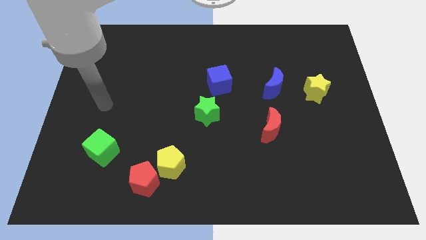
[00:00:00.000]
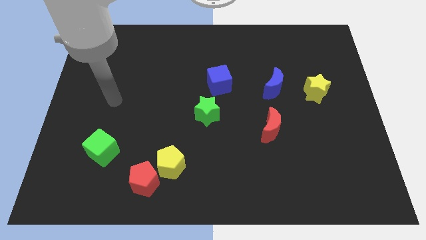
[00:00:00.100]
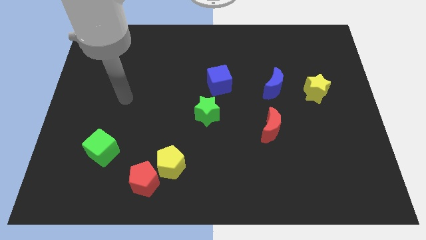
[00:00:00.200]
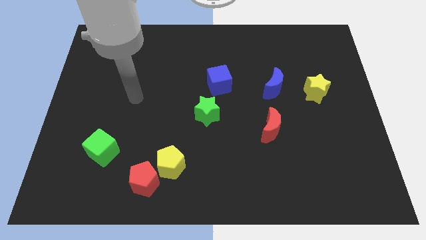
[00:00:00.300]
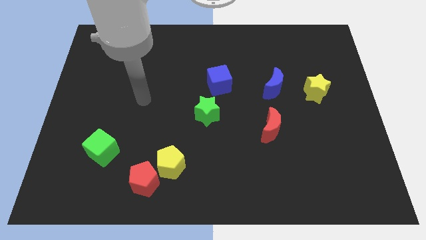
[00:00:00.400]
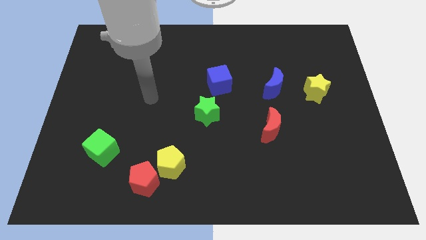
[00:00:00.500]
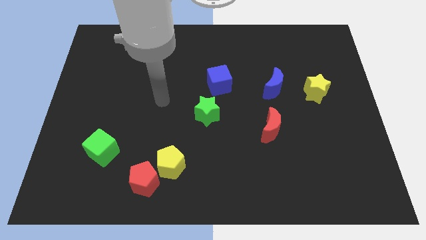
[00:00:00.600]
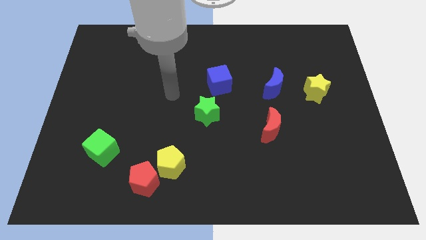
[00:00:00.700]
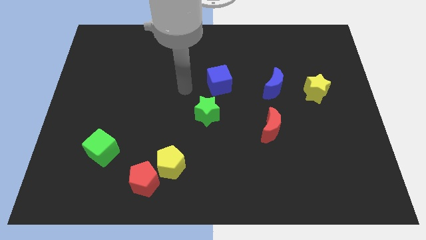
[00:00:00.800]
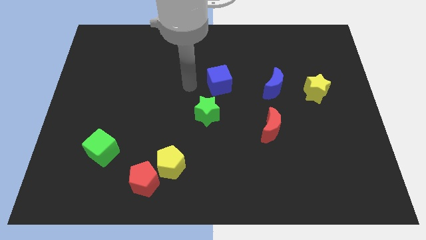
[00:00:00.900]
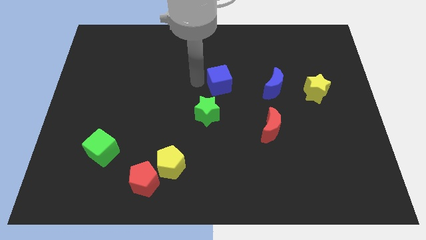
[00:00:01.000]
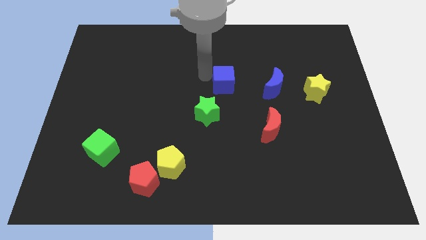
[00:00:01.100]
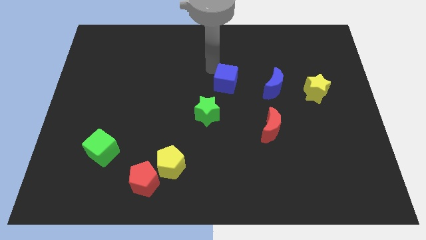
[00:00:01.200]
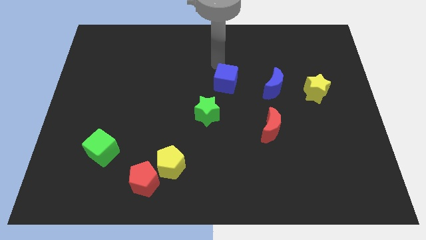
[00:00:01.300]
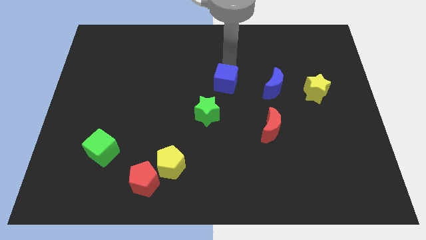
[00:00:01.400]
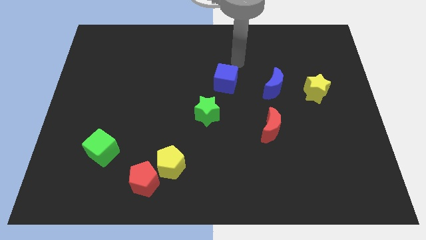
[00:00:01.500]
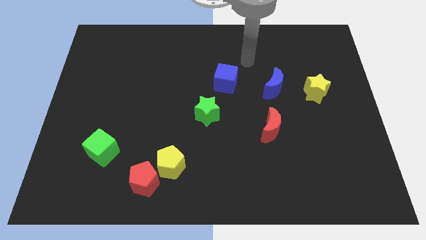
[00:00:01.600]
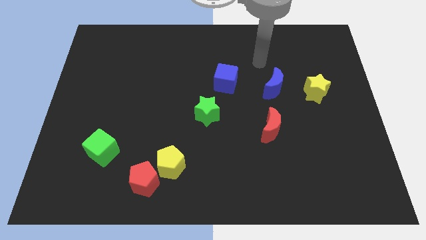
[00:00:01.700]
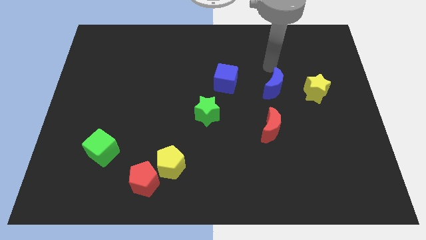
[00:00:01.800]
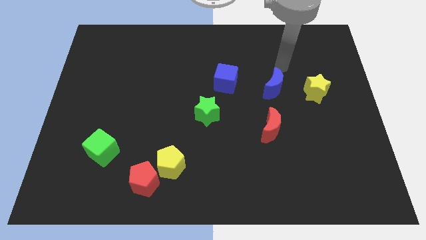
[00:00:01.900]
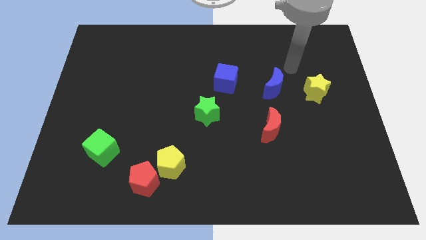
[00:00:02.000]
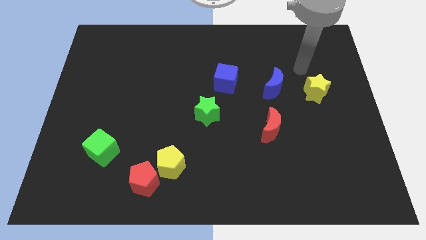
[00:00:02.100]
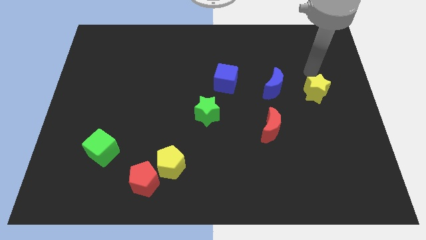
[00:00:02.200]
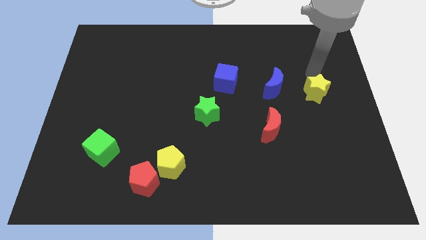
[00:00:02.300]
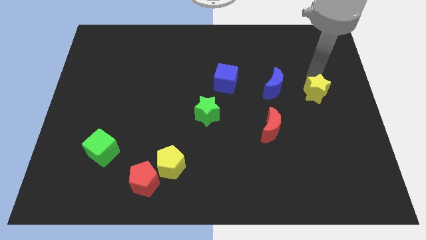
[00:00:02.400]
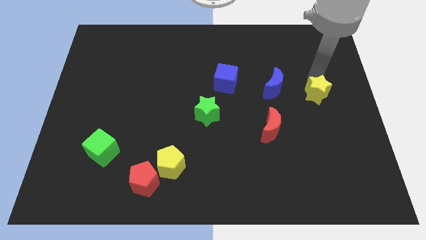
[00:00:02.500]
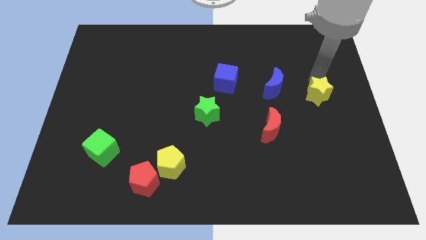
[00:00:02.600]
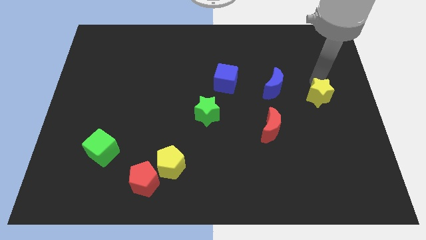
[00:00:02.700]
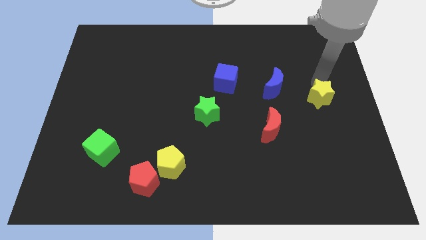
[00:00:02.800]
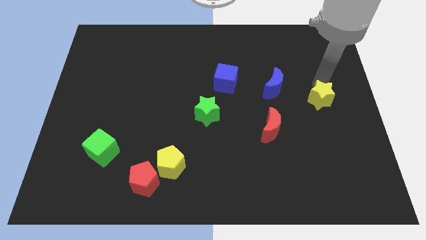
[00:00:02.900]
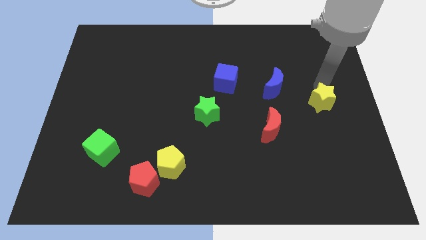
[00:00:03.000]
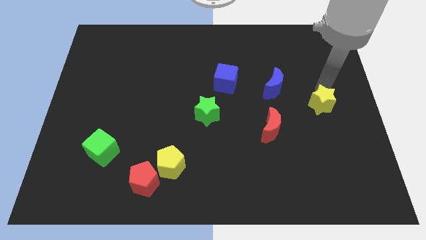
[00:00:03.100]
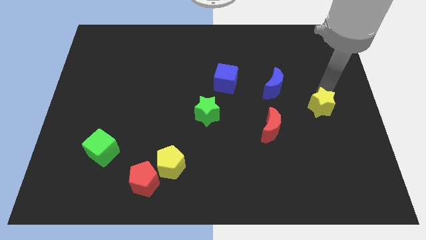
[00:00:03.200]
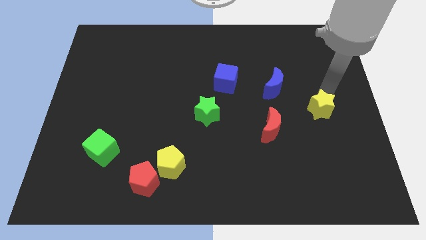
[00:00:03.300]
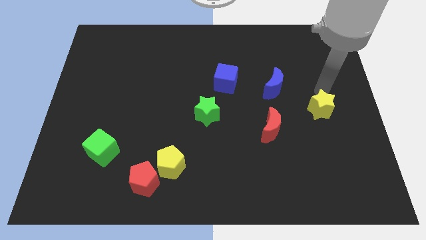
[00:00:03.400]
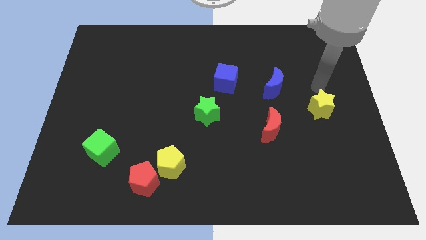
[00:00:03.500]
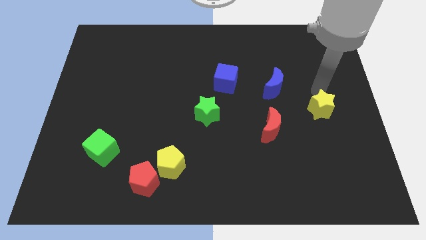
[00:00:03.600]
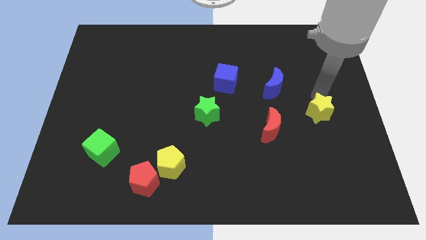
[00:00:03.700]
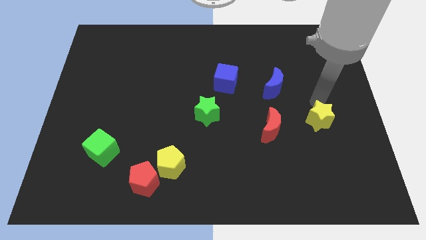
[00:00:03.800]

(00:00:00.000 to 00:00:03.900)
move the yellow star downwards a little bit

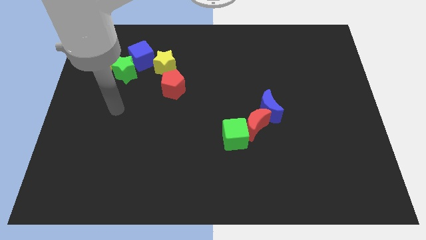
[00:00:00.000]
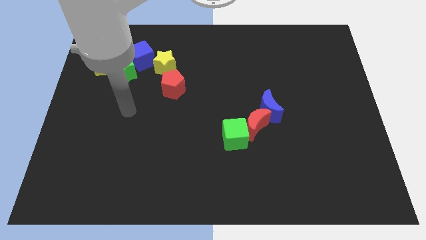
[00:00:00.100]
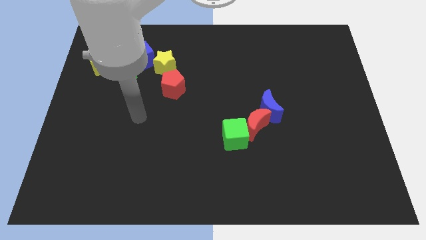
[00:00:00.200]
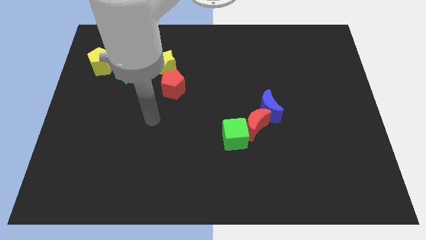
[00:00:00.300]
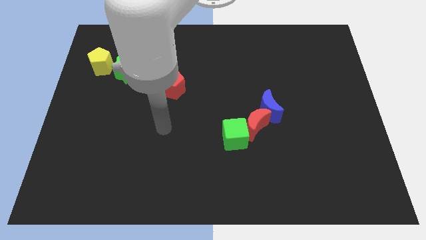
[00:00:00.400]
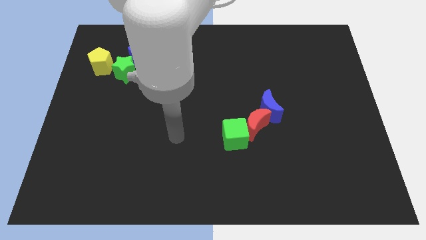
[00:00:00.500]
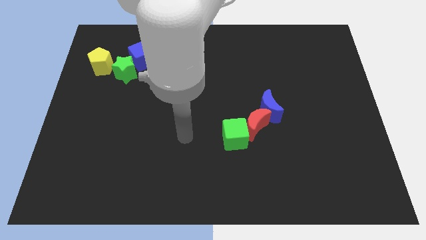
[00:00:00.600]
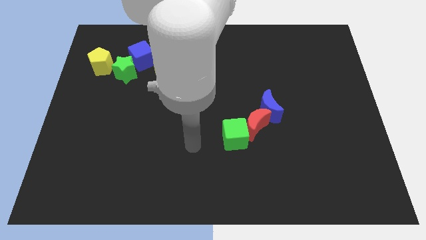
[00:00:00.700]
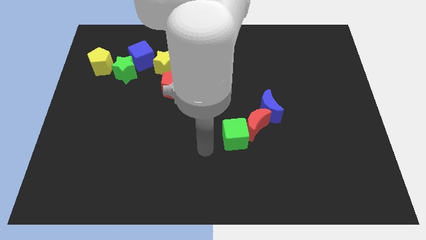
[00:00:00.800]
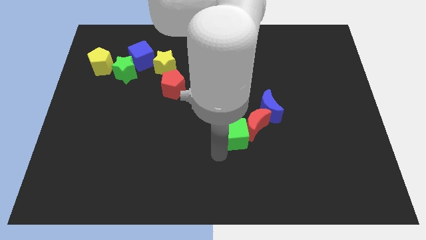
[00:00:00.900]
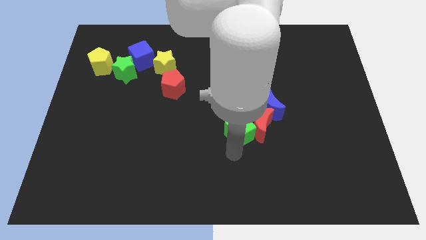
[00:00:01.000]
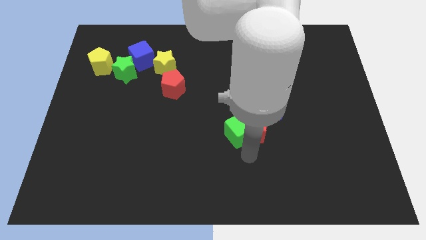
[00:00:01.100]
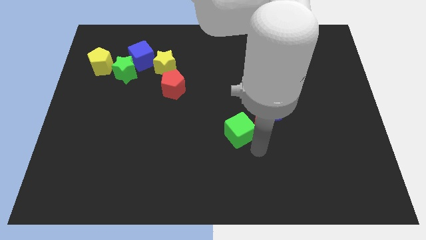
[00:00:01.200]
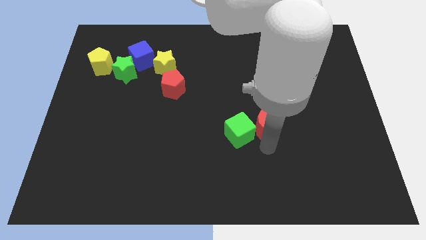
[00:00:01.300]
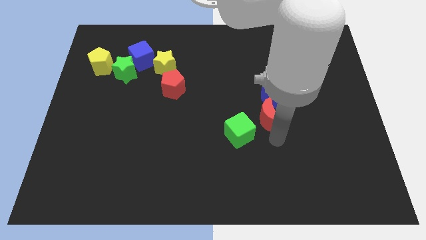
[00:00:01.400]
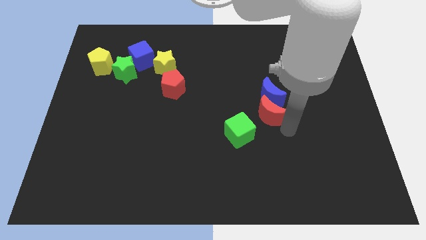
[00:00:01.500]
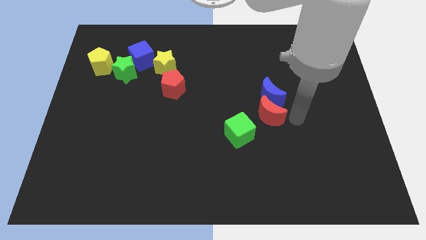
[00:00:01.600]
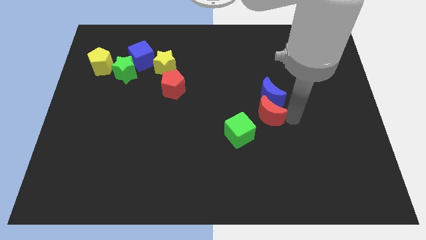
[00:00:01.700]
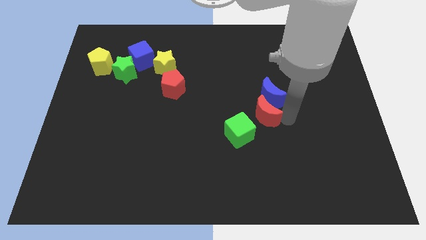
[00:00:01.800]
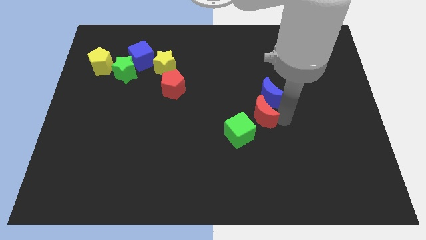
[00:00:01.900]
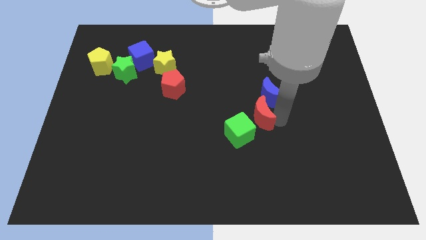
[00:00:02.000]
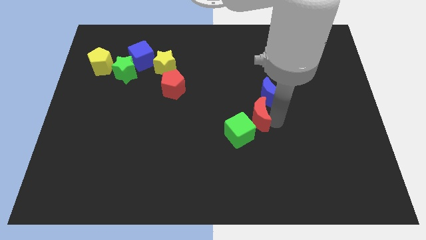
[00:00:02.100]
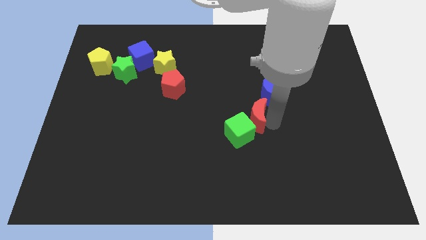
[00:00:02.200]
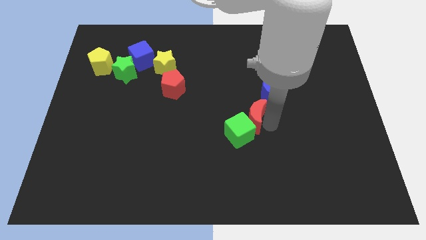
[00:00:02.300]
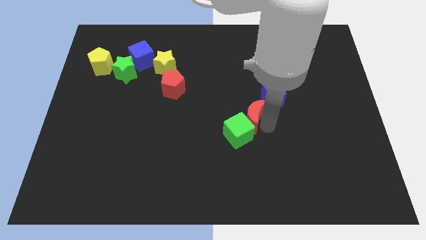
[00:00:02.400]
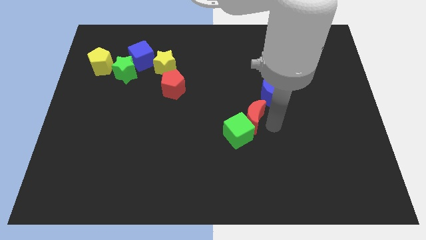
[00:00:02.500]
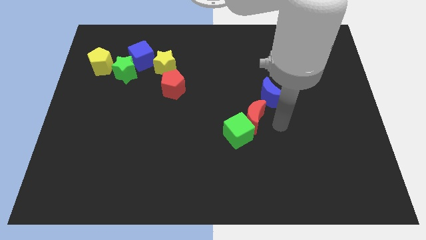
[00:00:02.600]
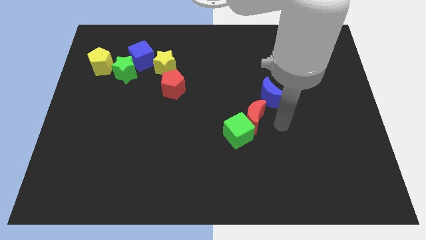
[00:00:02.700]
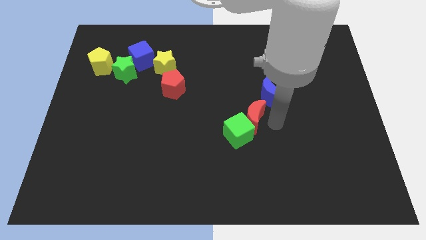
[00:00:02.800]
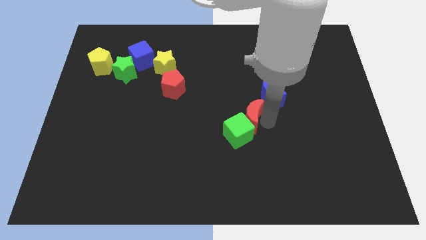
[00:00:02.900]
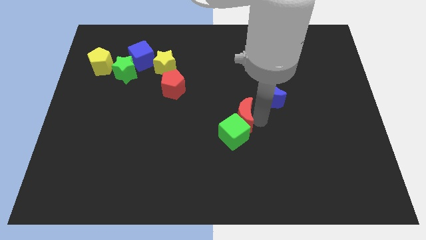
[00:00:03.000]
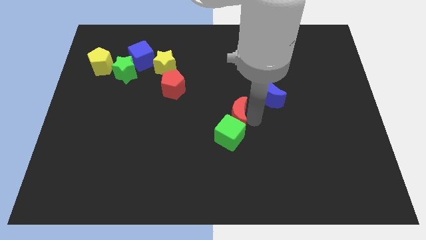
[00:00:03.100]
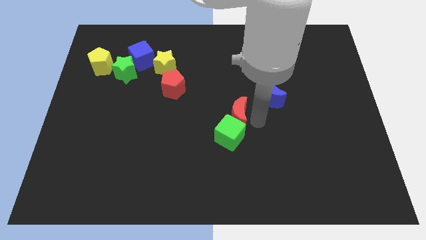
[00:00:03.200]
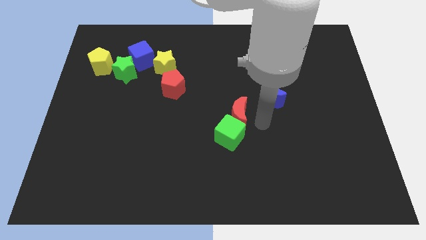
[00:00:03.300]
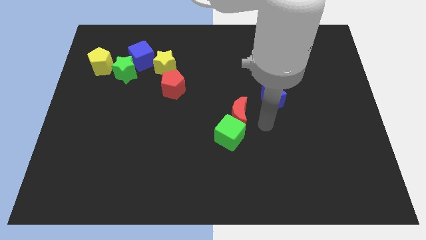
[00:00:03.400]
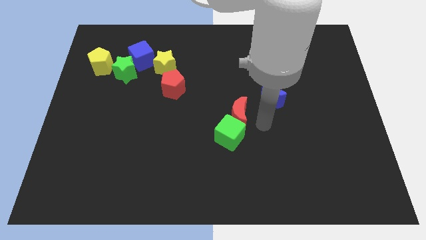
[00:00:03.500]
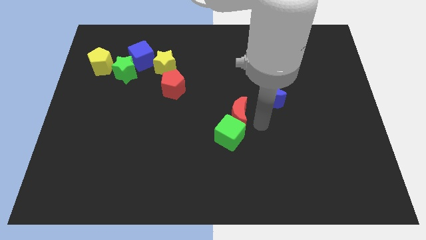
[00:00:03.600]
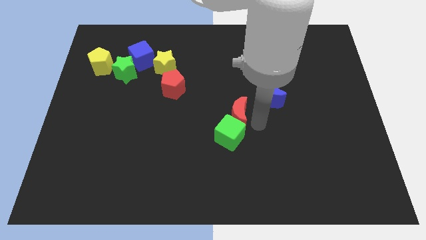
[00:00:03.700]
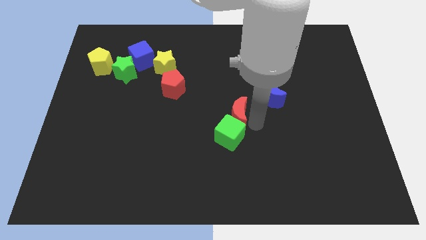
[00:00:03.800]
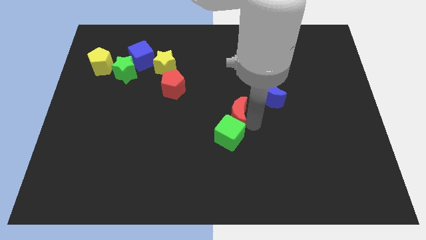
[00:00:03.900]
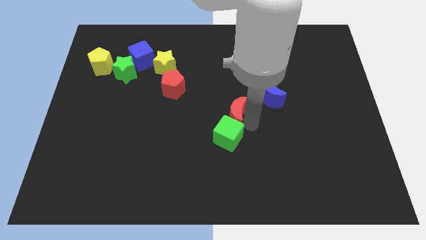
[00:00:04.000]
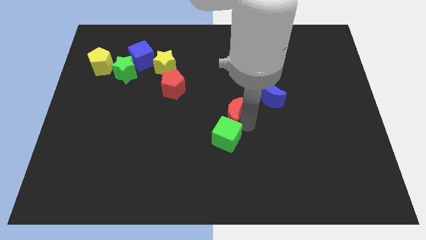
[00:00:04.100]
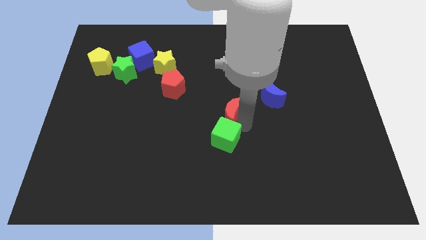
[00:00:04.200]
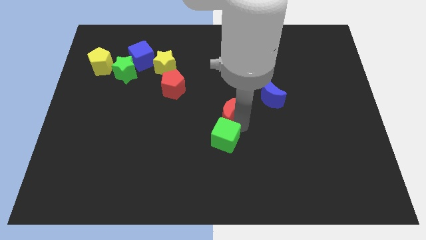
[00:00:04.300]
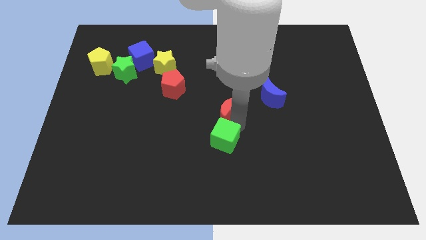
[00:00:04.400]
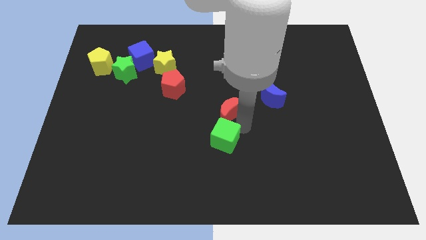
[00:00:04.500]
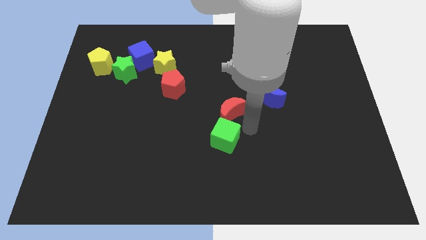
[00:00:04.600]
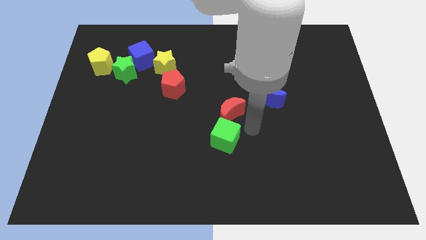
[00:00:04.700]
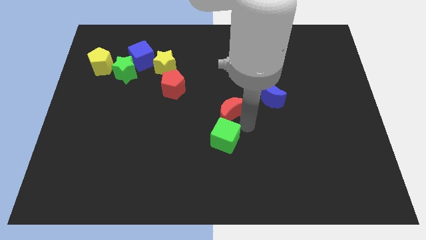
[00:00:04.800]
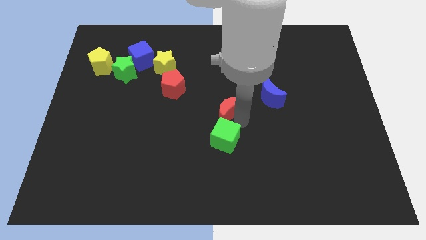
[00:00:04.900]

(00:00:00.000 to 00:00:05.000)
push the red moon a bit up and to the left
